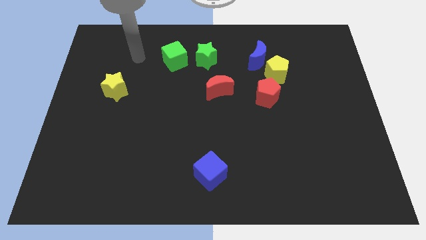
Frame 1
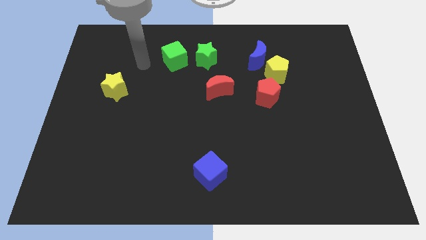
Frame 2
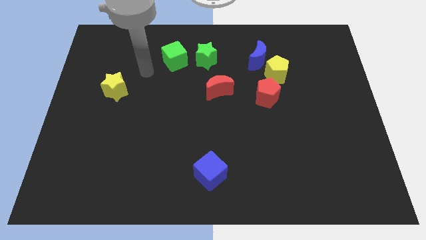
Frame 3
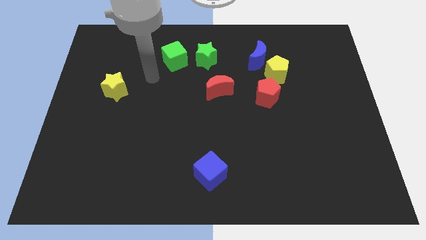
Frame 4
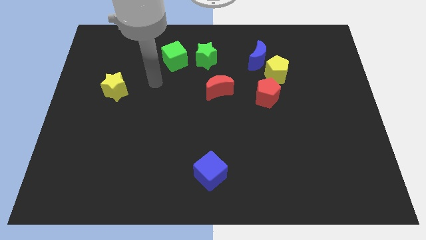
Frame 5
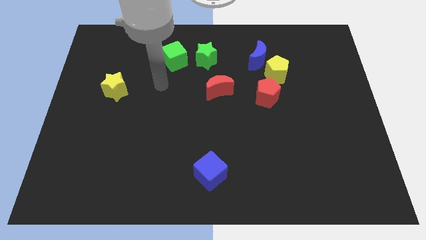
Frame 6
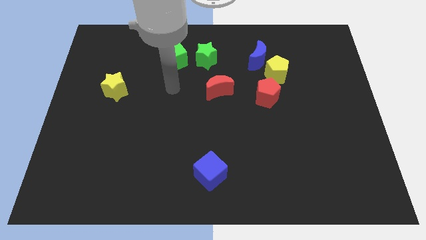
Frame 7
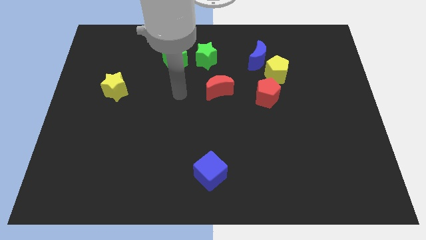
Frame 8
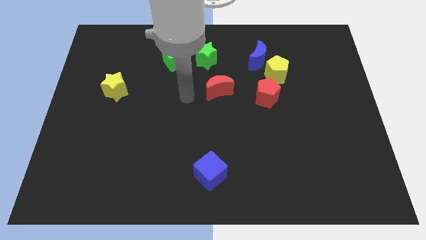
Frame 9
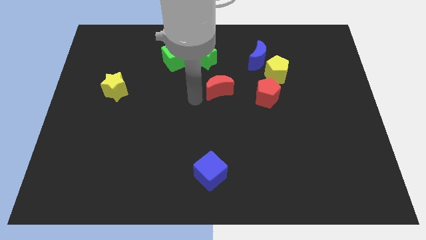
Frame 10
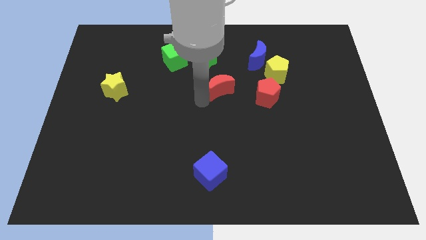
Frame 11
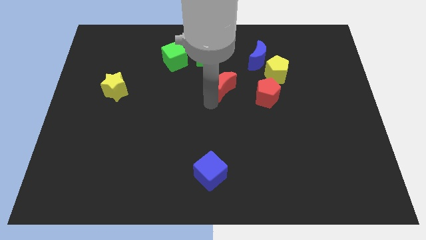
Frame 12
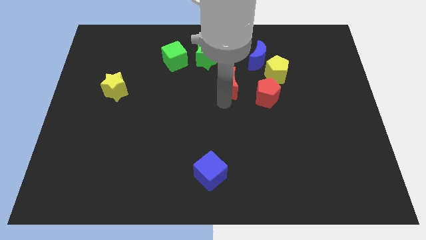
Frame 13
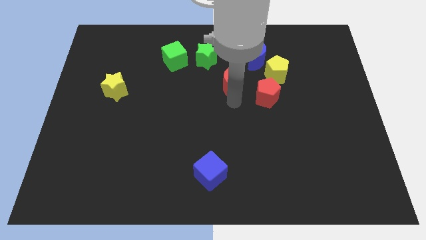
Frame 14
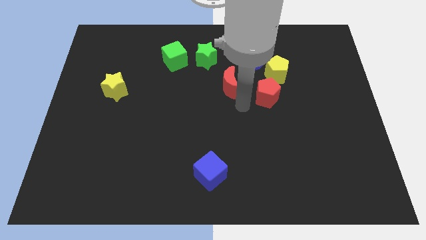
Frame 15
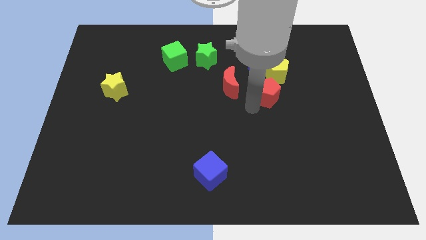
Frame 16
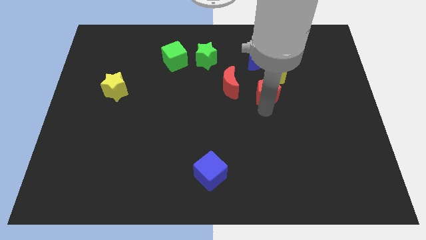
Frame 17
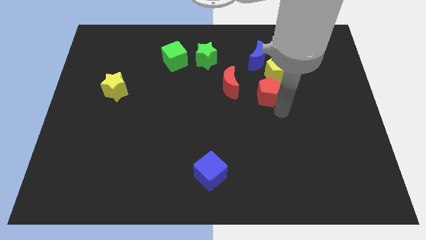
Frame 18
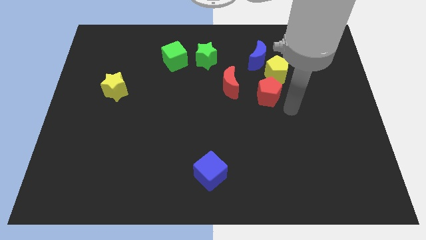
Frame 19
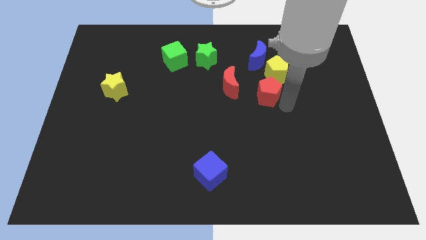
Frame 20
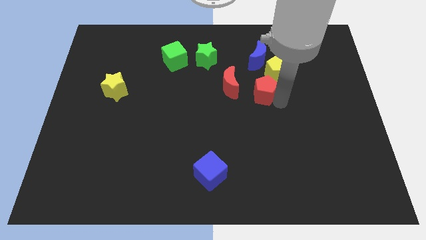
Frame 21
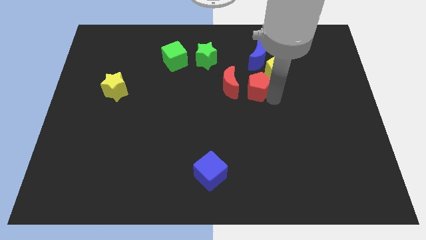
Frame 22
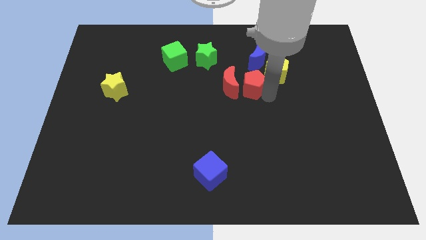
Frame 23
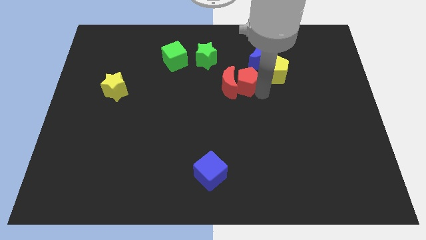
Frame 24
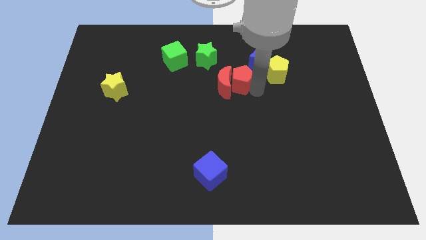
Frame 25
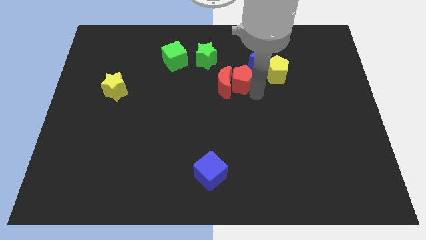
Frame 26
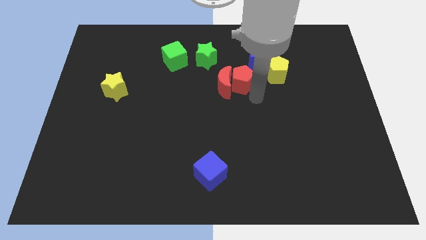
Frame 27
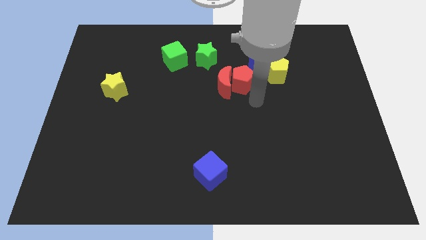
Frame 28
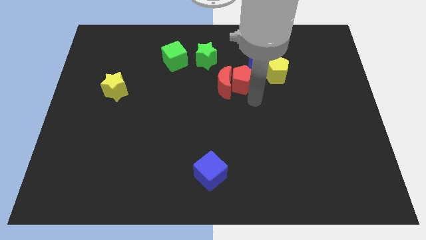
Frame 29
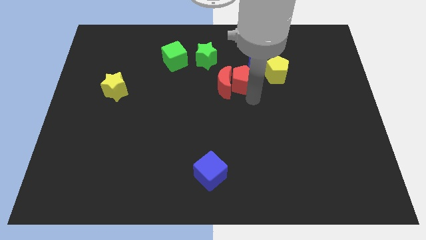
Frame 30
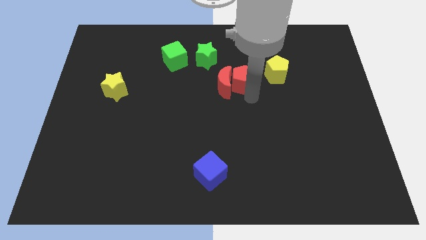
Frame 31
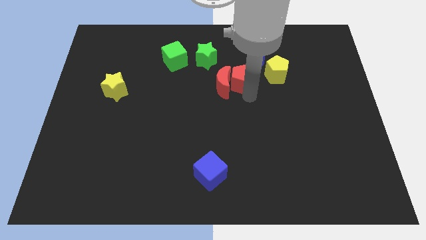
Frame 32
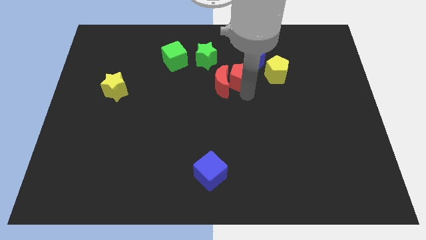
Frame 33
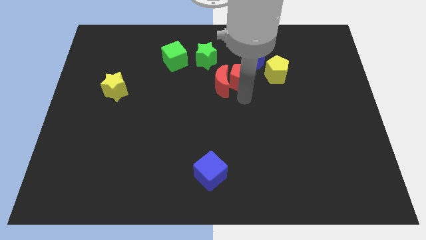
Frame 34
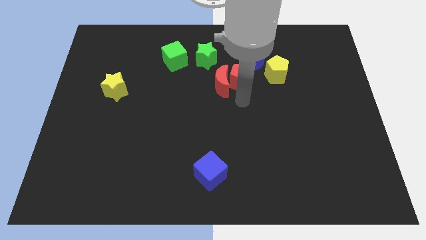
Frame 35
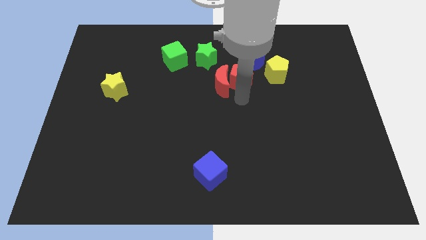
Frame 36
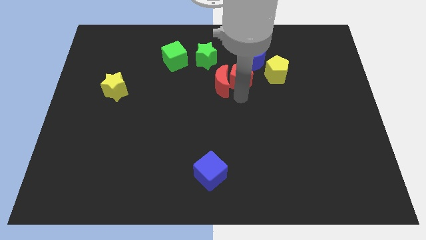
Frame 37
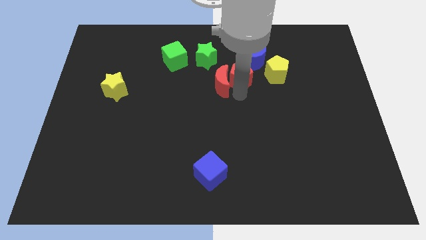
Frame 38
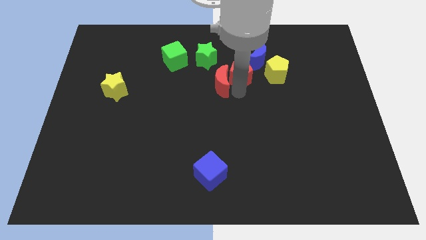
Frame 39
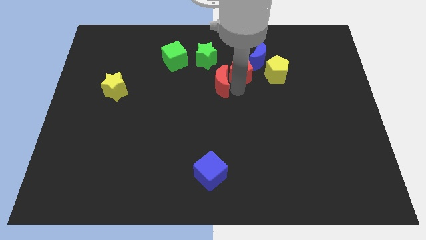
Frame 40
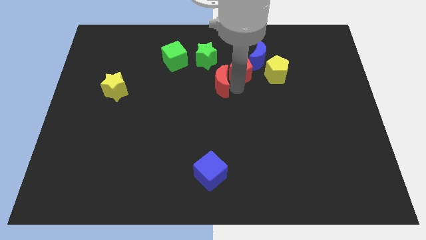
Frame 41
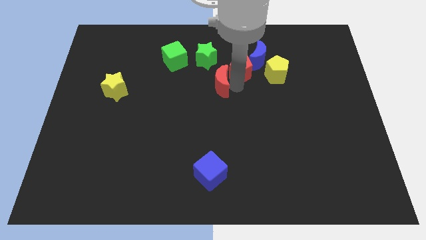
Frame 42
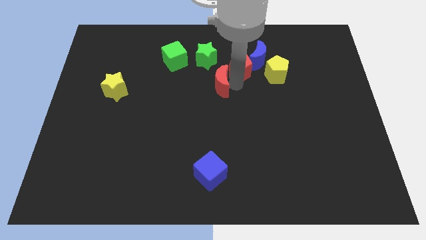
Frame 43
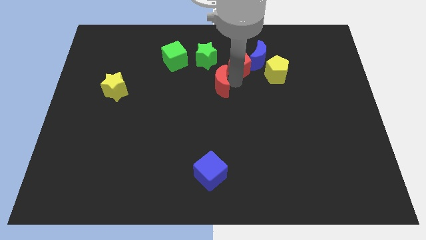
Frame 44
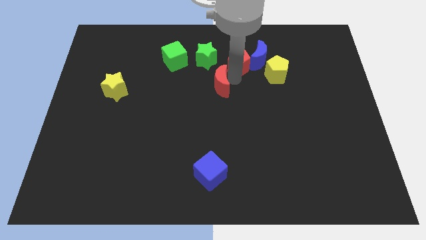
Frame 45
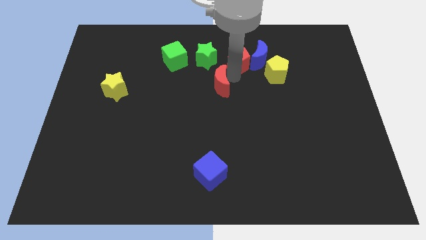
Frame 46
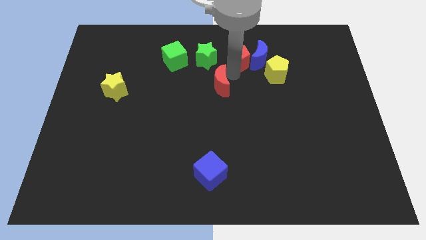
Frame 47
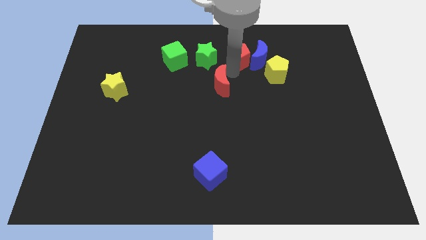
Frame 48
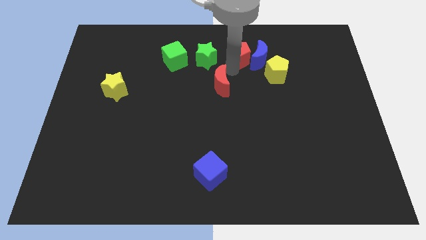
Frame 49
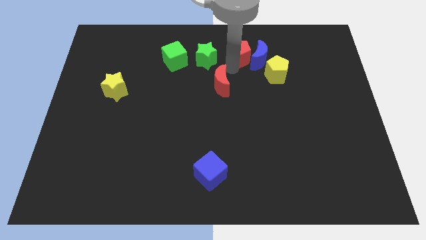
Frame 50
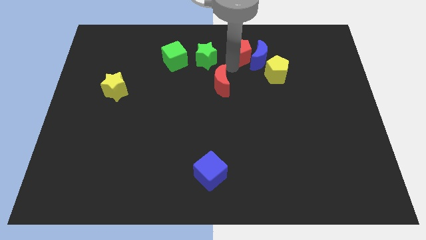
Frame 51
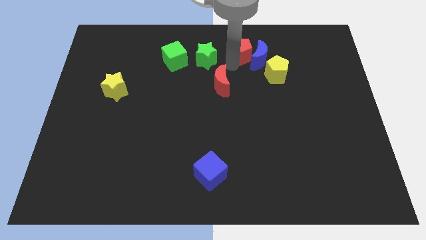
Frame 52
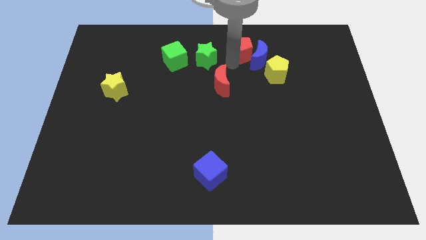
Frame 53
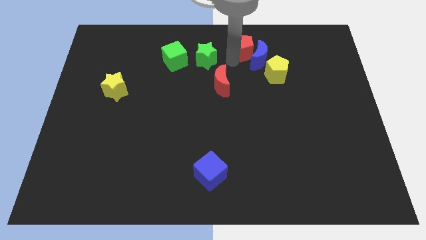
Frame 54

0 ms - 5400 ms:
move the red pentagon to the top

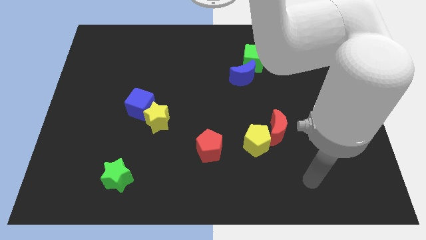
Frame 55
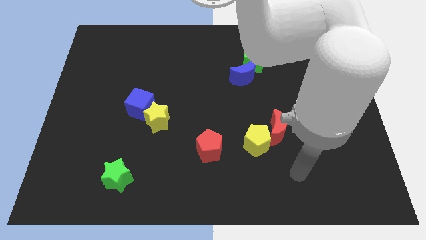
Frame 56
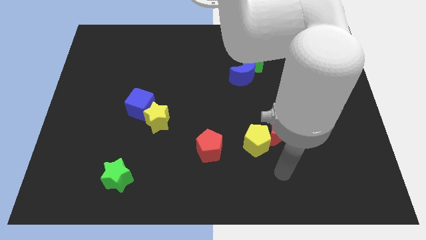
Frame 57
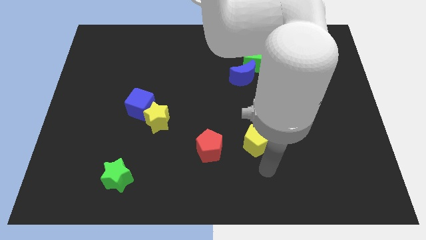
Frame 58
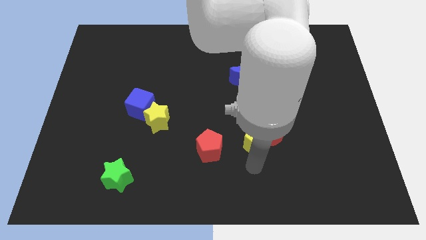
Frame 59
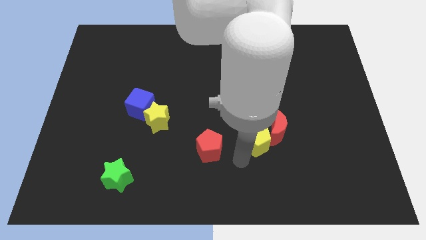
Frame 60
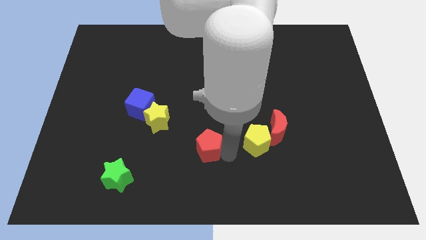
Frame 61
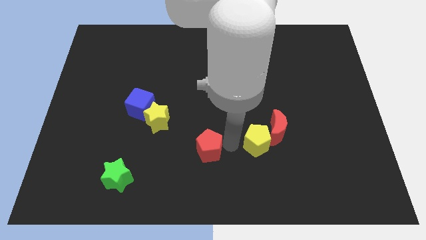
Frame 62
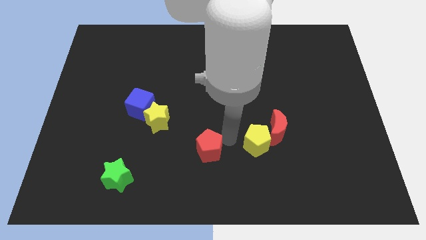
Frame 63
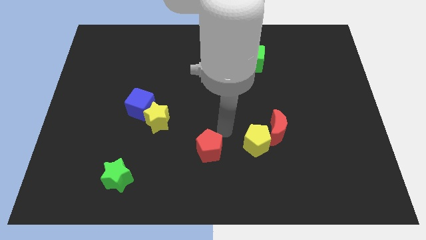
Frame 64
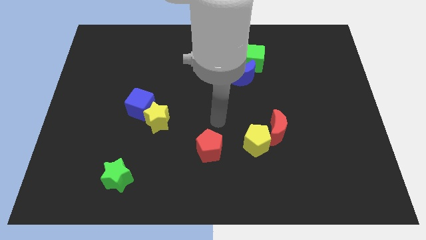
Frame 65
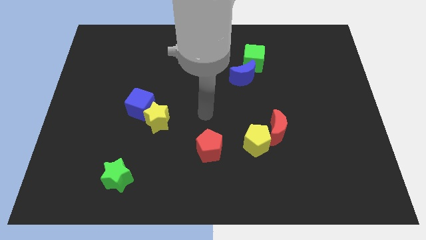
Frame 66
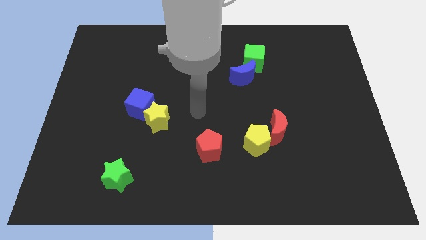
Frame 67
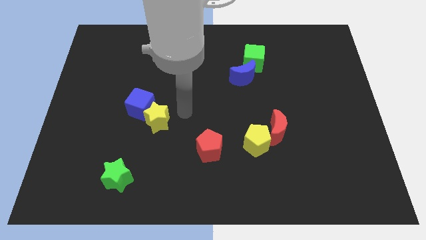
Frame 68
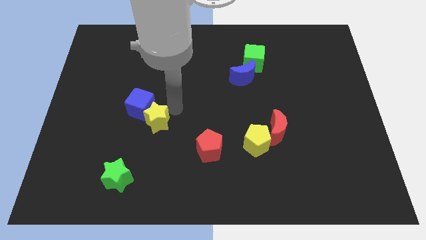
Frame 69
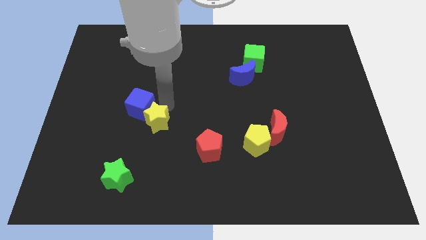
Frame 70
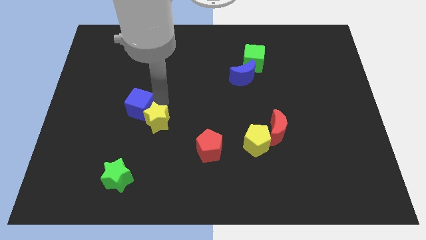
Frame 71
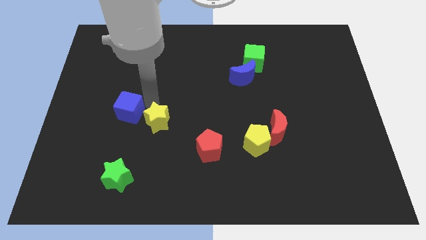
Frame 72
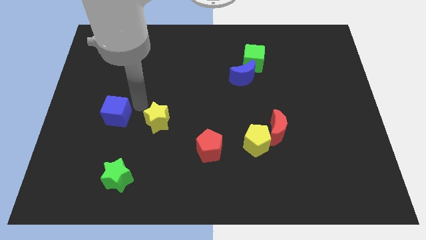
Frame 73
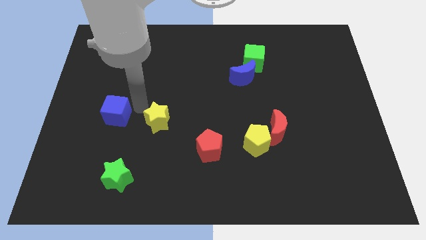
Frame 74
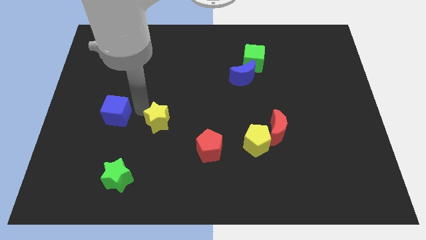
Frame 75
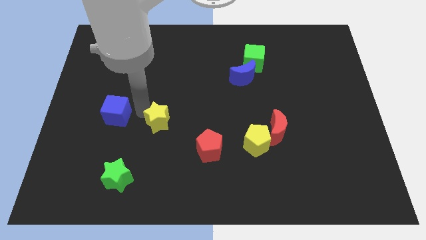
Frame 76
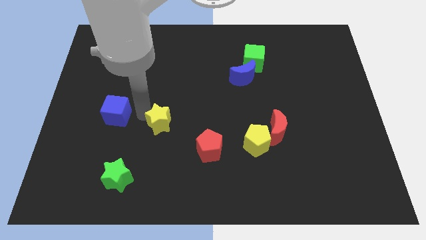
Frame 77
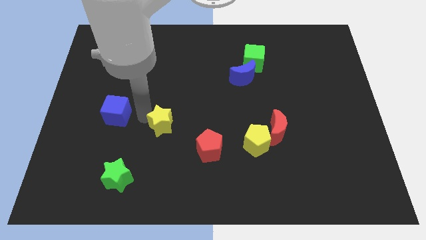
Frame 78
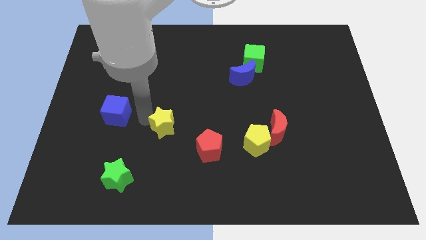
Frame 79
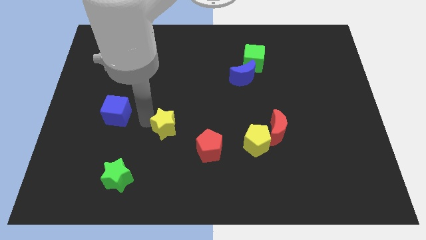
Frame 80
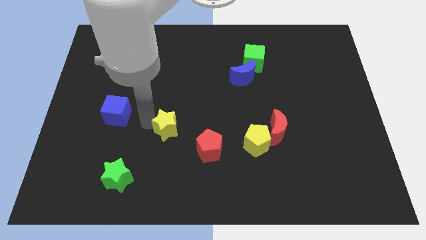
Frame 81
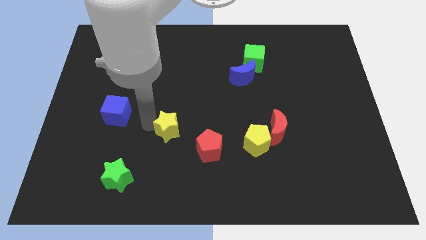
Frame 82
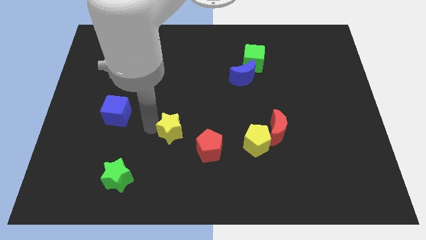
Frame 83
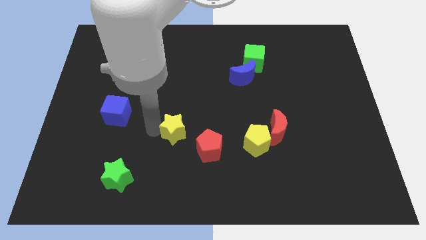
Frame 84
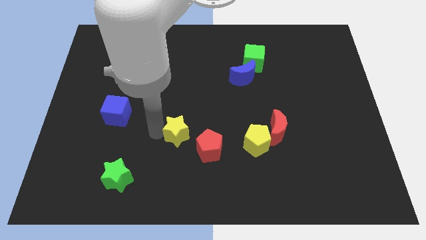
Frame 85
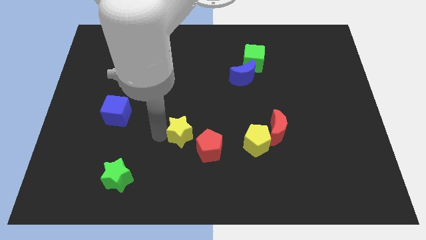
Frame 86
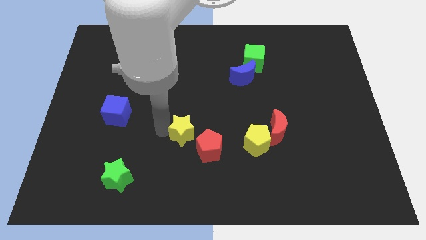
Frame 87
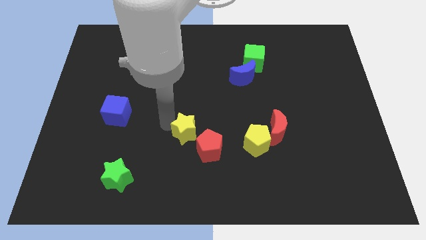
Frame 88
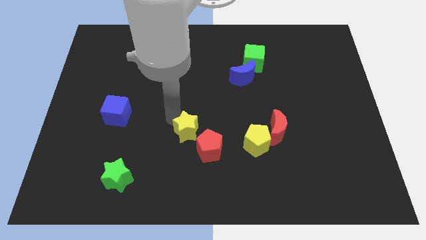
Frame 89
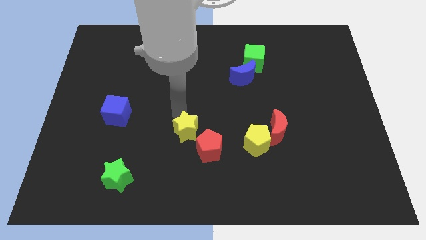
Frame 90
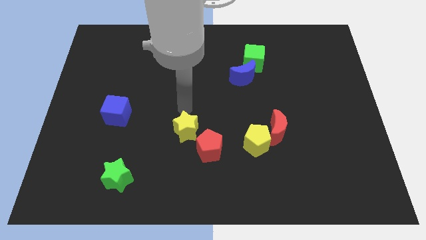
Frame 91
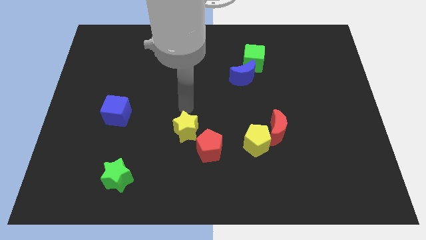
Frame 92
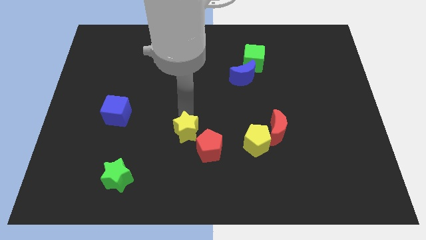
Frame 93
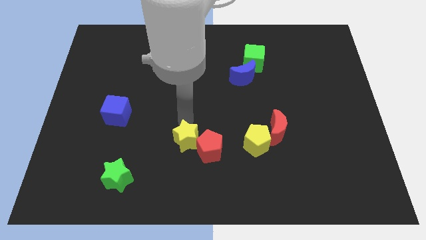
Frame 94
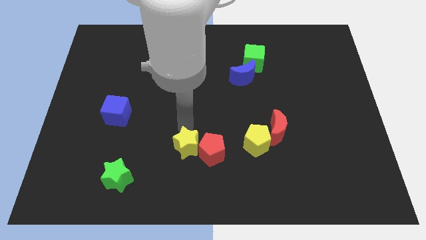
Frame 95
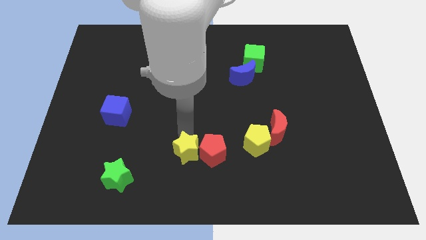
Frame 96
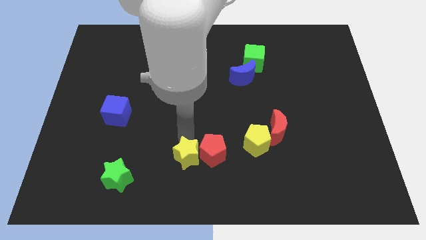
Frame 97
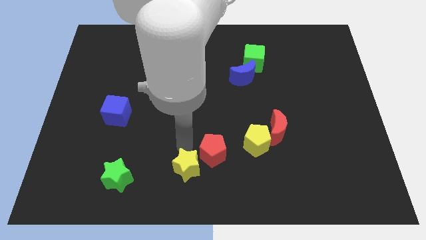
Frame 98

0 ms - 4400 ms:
slide the yellow star to the bottom side
